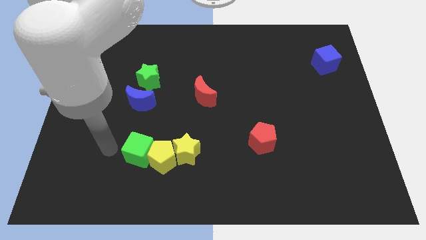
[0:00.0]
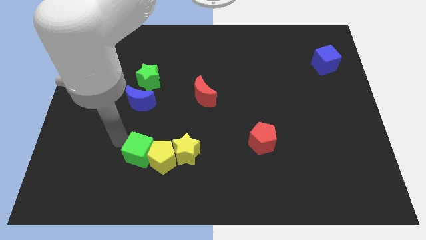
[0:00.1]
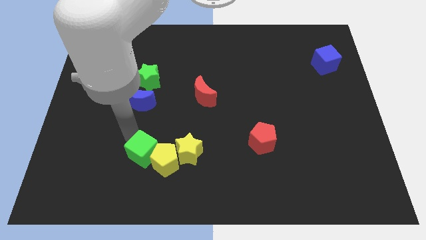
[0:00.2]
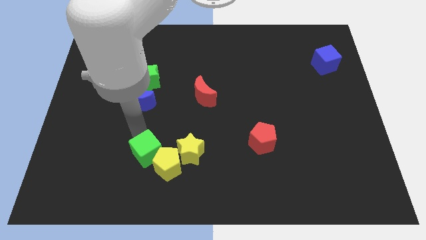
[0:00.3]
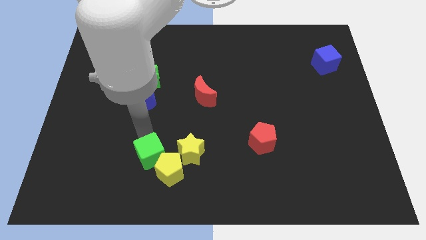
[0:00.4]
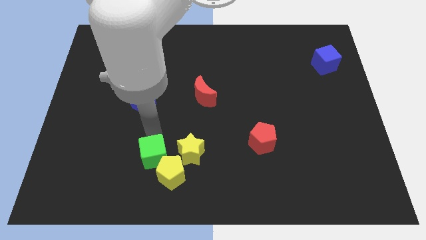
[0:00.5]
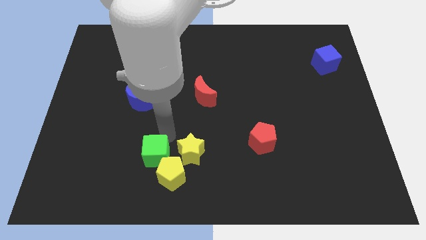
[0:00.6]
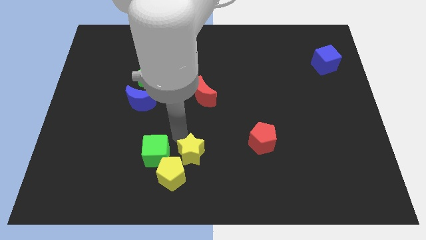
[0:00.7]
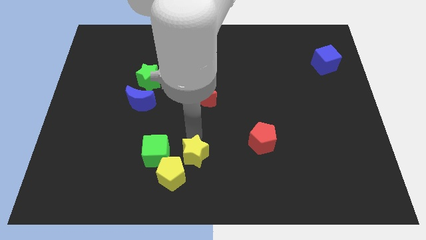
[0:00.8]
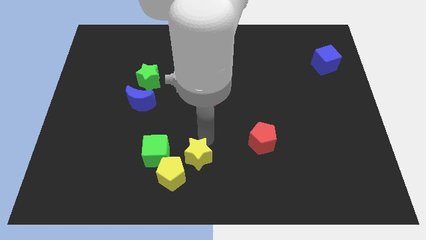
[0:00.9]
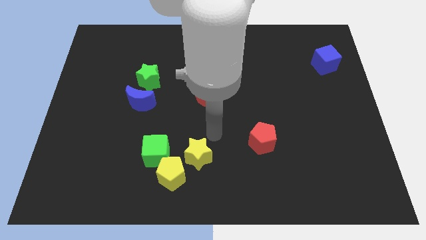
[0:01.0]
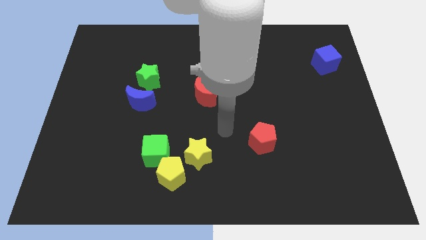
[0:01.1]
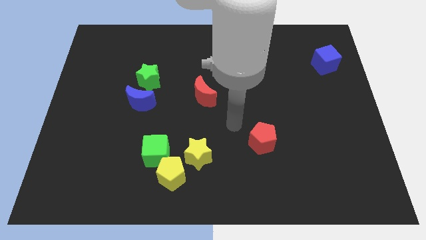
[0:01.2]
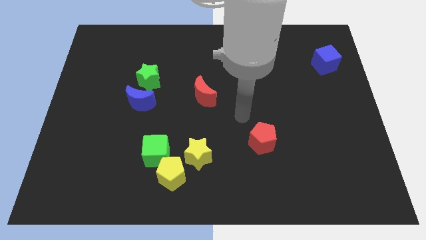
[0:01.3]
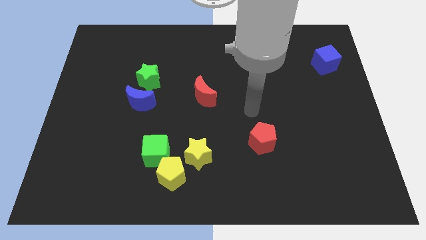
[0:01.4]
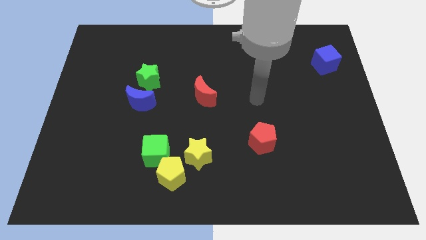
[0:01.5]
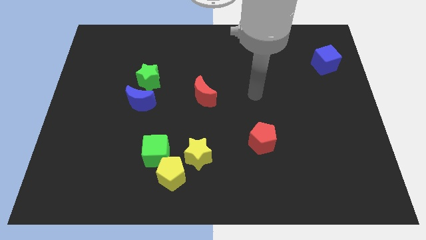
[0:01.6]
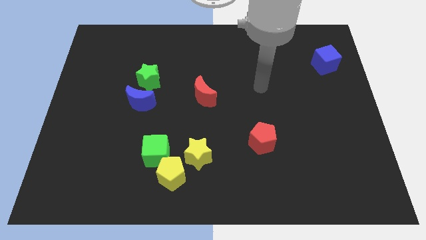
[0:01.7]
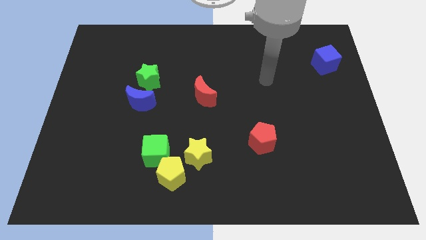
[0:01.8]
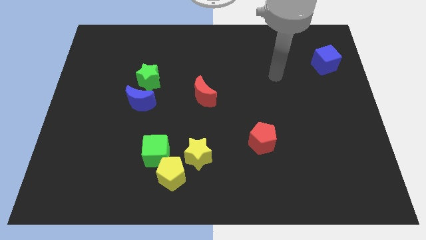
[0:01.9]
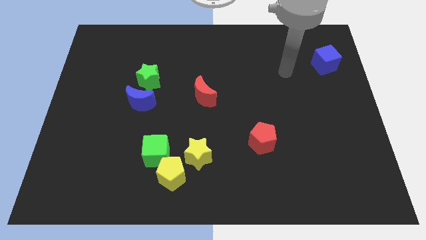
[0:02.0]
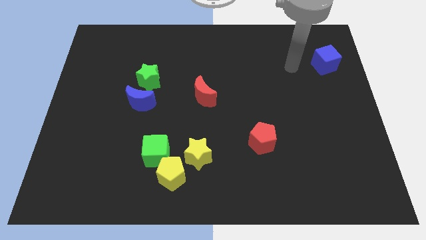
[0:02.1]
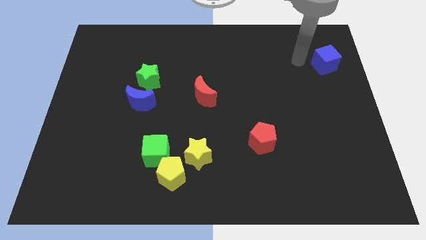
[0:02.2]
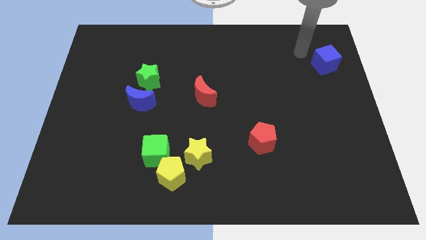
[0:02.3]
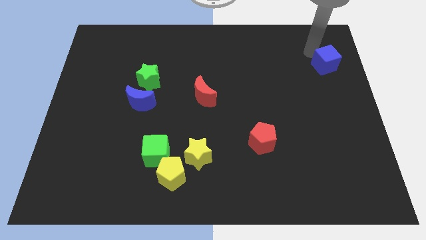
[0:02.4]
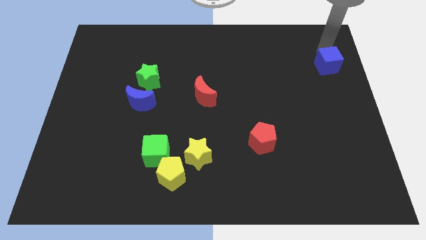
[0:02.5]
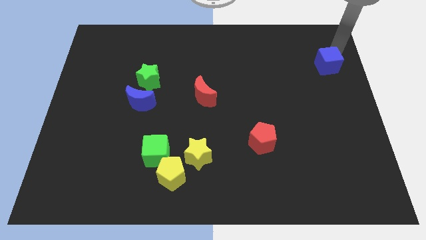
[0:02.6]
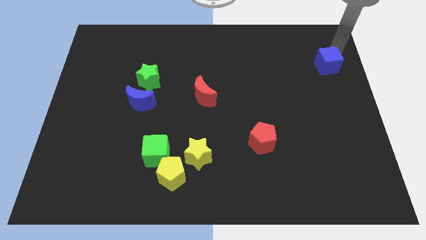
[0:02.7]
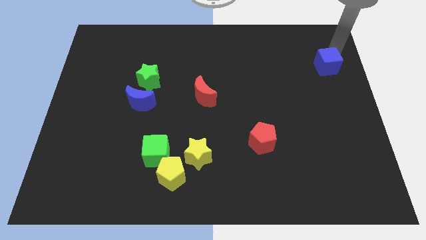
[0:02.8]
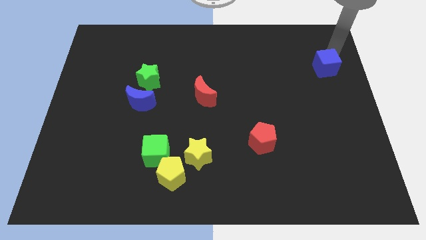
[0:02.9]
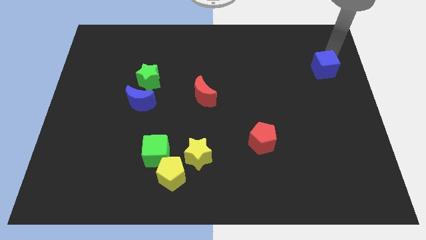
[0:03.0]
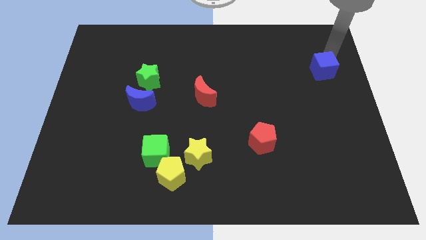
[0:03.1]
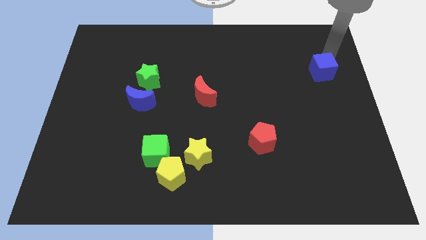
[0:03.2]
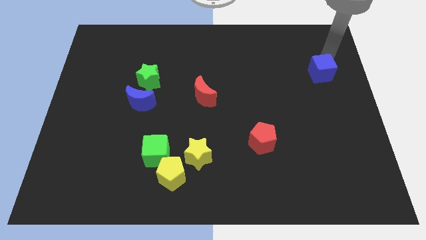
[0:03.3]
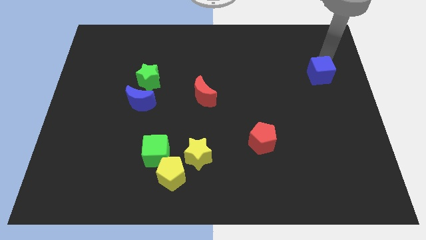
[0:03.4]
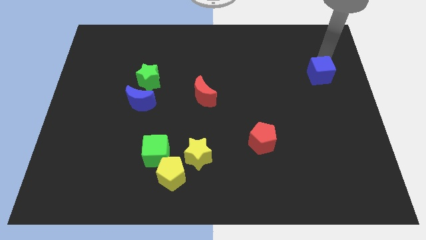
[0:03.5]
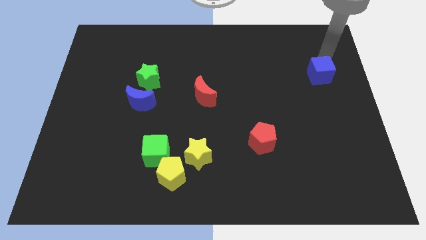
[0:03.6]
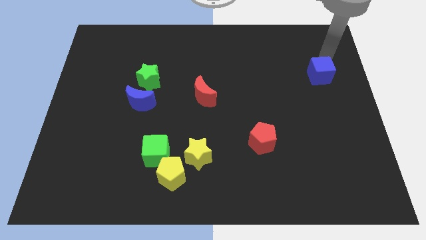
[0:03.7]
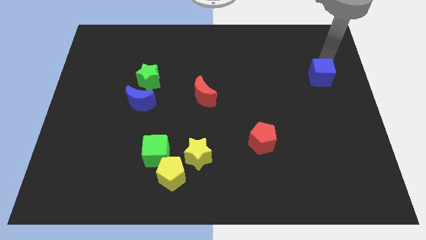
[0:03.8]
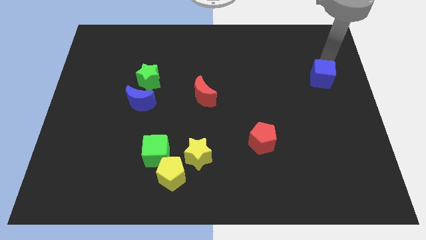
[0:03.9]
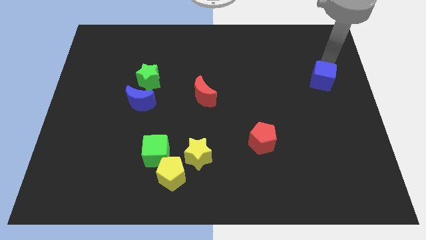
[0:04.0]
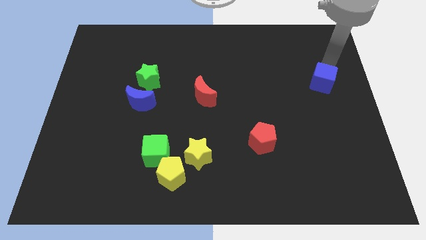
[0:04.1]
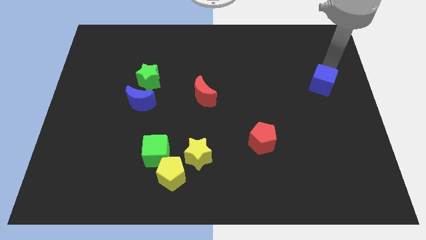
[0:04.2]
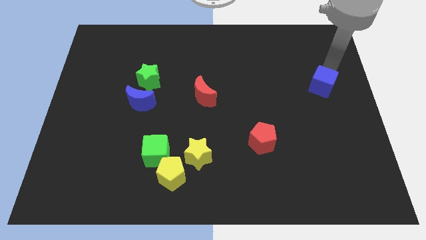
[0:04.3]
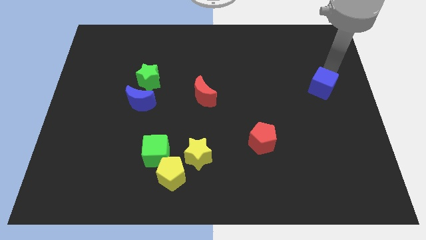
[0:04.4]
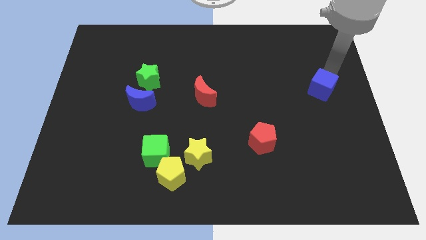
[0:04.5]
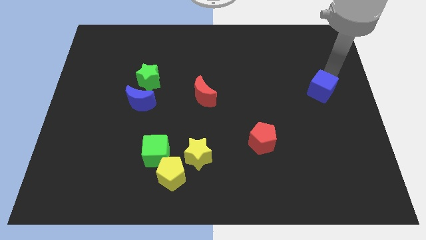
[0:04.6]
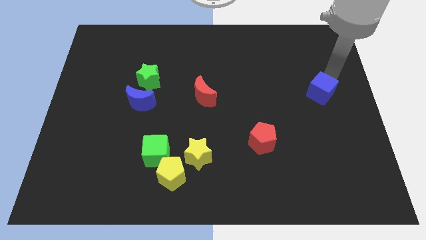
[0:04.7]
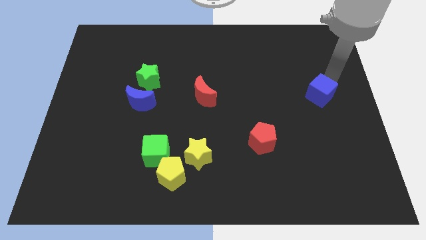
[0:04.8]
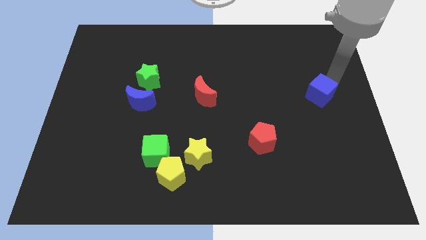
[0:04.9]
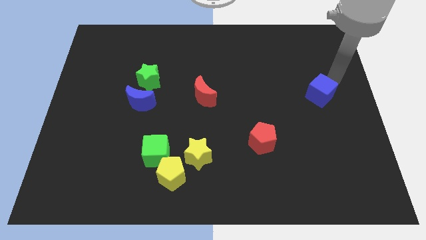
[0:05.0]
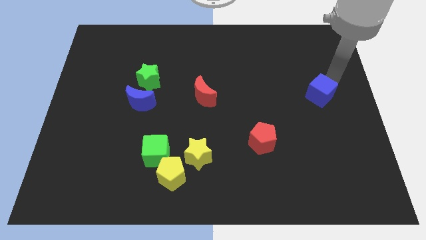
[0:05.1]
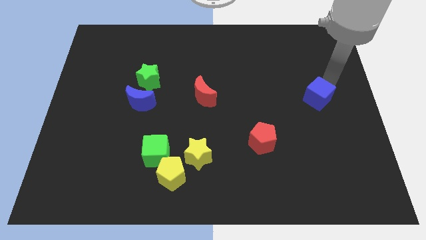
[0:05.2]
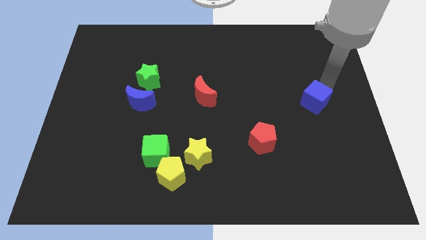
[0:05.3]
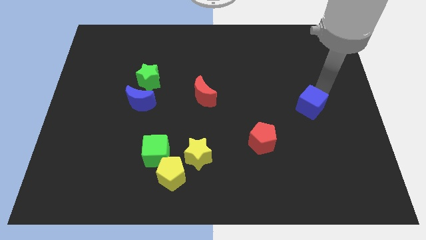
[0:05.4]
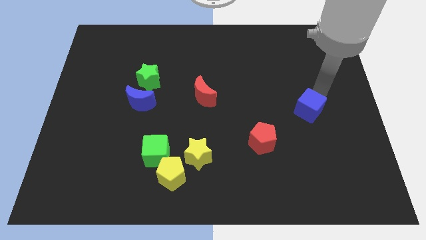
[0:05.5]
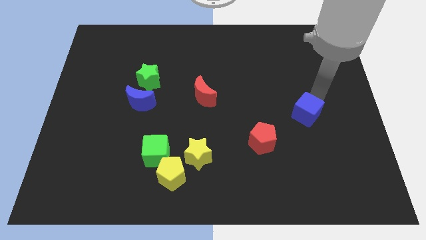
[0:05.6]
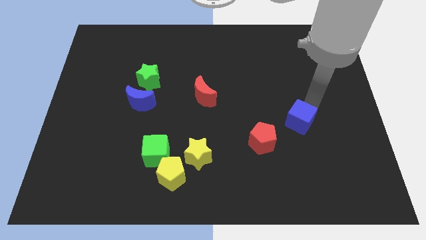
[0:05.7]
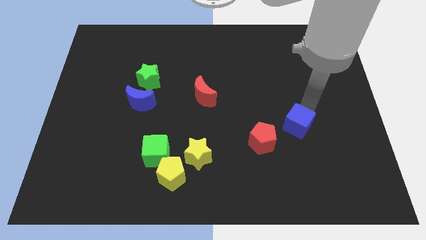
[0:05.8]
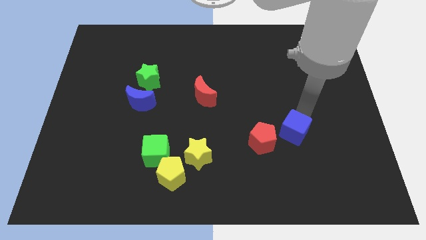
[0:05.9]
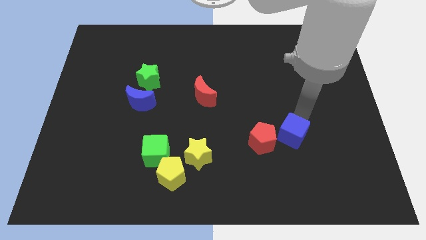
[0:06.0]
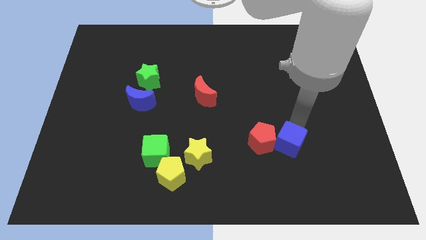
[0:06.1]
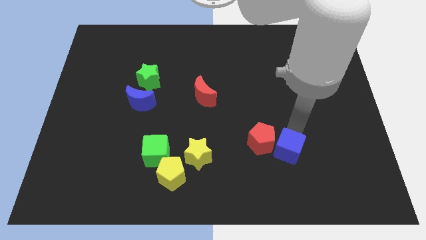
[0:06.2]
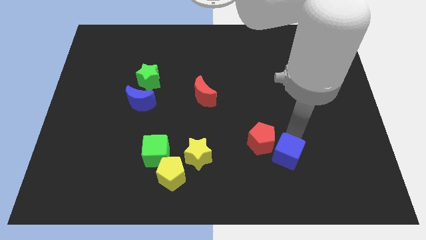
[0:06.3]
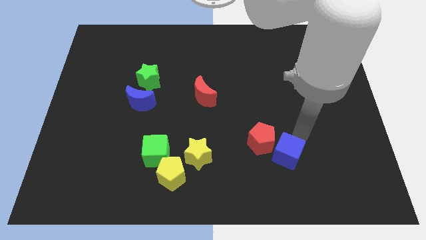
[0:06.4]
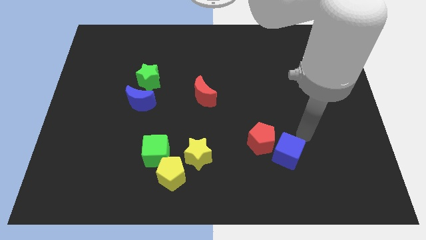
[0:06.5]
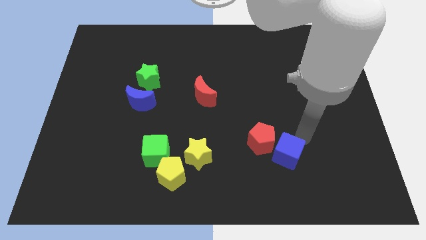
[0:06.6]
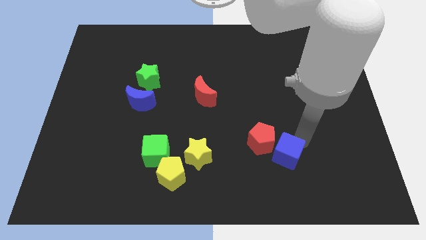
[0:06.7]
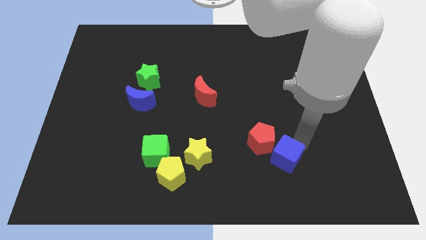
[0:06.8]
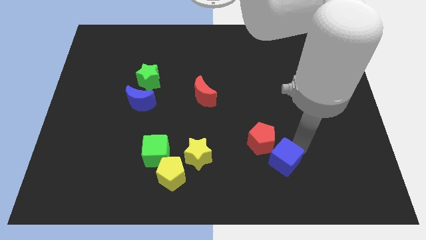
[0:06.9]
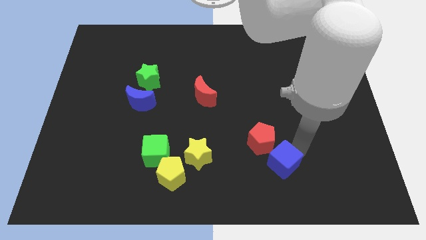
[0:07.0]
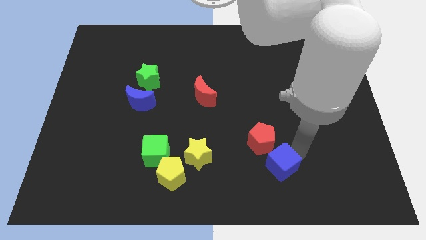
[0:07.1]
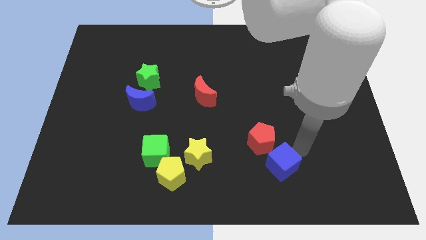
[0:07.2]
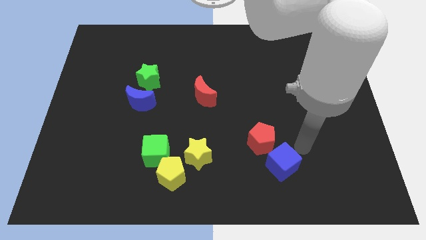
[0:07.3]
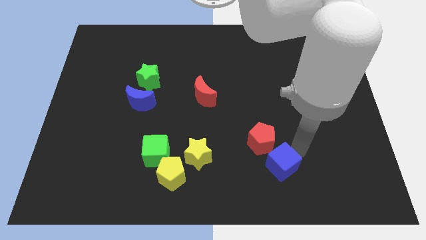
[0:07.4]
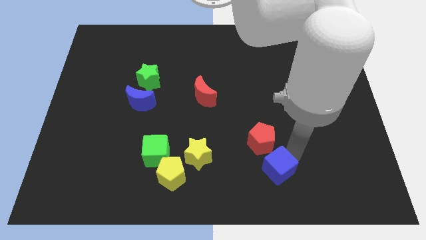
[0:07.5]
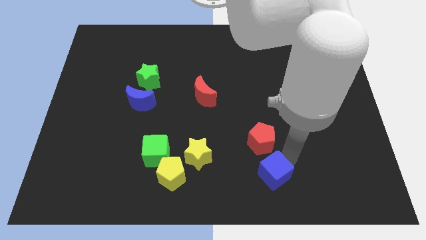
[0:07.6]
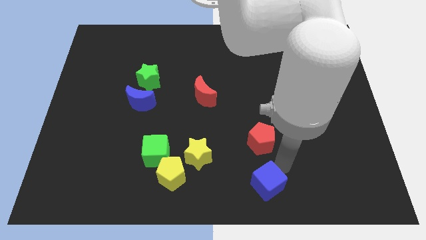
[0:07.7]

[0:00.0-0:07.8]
slide the blue cube to the bottom side
